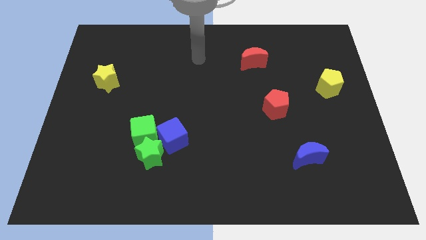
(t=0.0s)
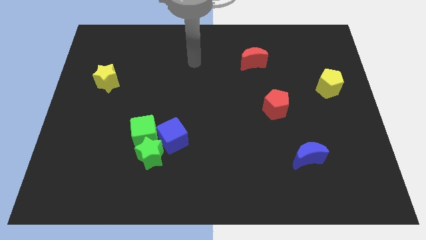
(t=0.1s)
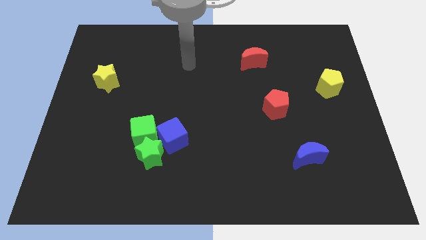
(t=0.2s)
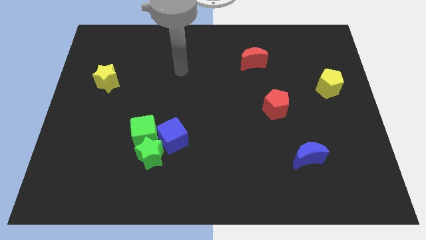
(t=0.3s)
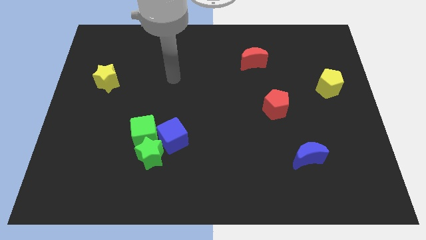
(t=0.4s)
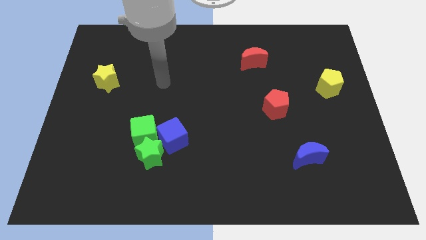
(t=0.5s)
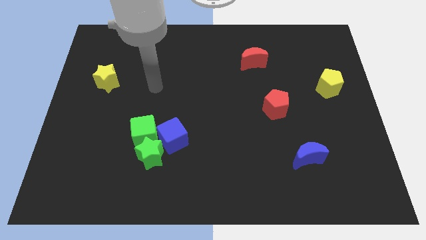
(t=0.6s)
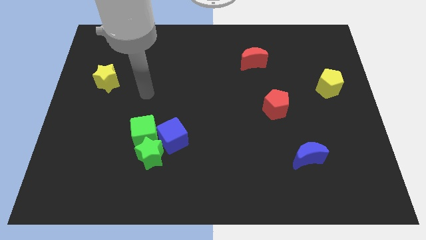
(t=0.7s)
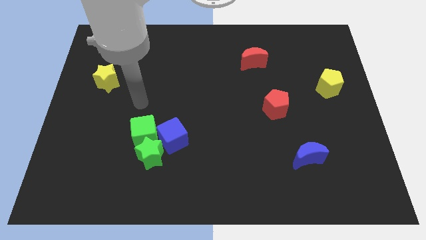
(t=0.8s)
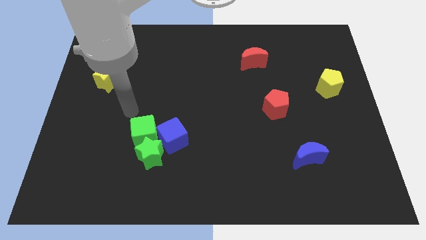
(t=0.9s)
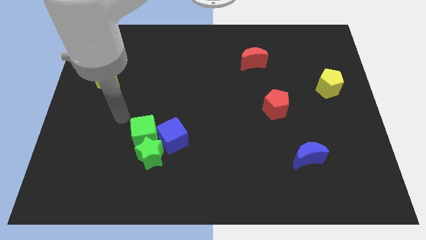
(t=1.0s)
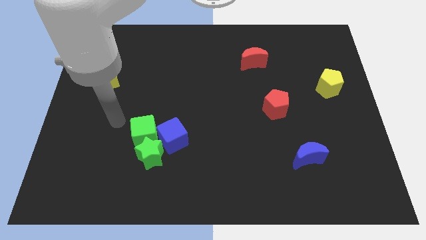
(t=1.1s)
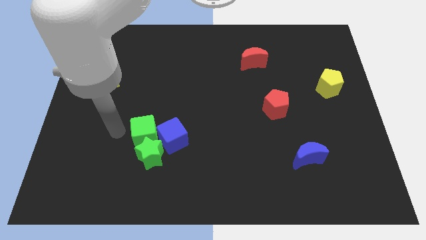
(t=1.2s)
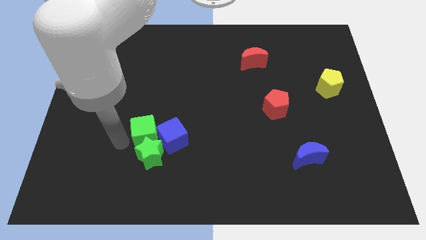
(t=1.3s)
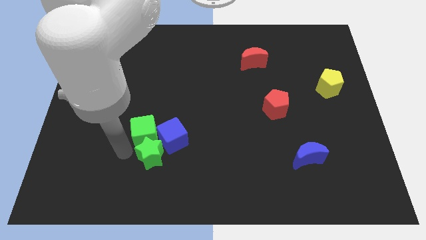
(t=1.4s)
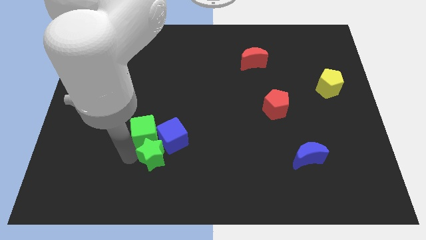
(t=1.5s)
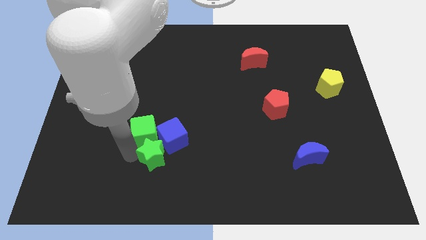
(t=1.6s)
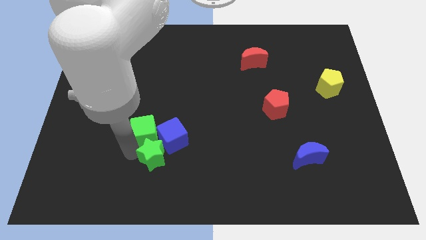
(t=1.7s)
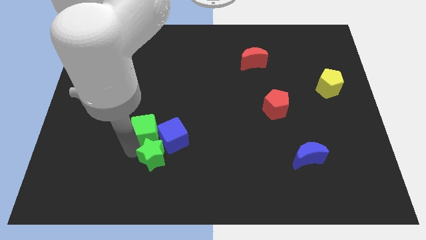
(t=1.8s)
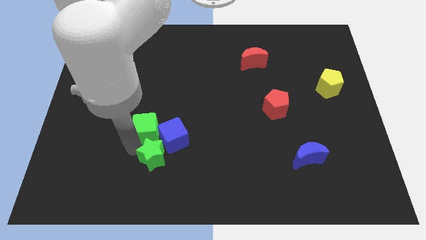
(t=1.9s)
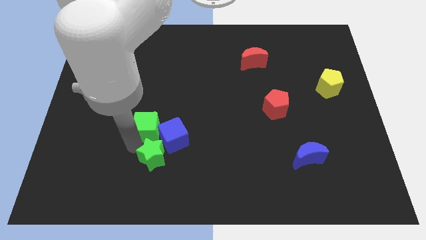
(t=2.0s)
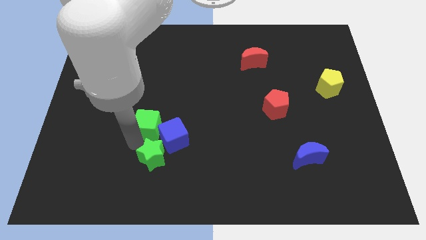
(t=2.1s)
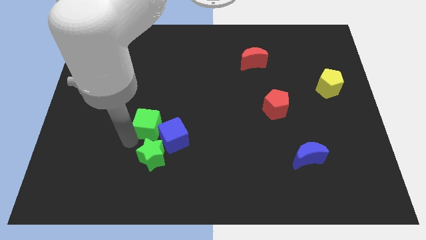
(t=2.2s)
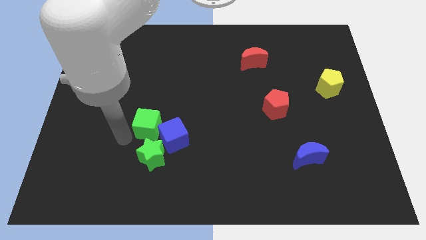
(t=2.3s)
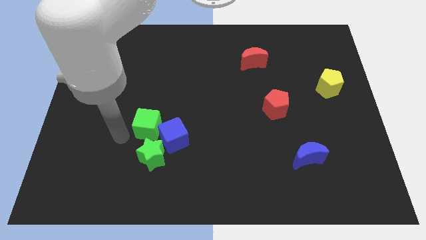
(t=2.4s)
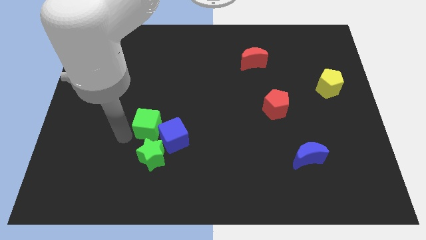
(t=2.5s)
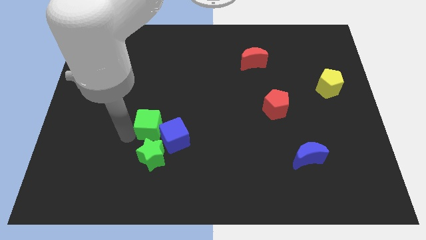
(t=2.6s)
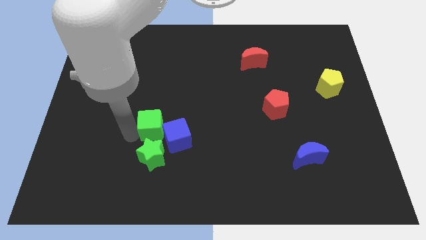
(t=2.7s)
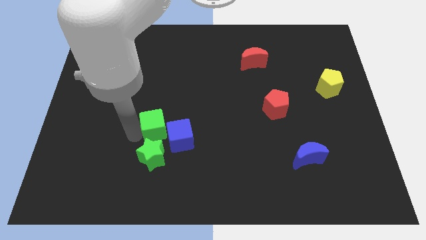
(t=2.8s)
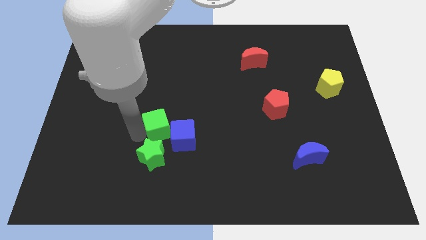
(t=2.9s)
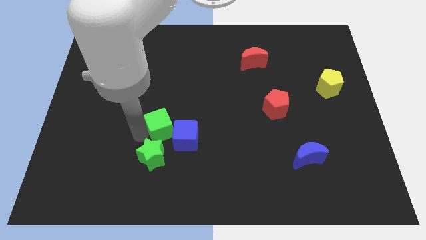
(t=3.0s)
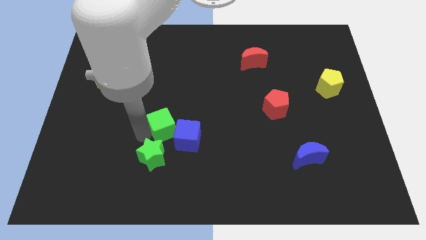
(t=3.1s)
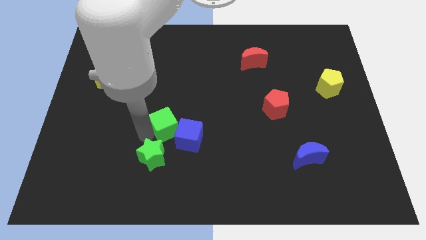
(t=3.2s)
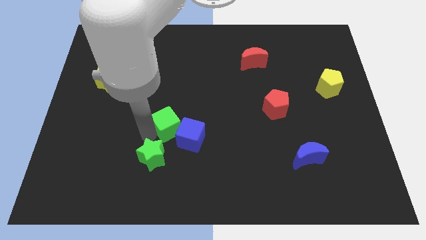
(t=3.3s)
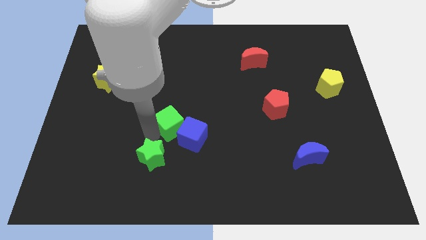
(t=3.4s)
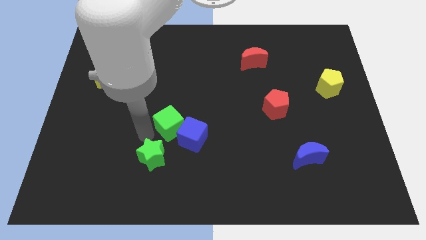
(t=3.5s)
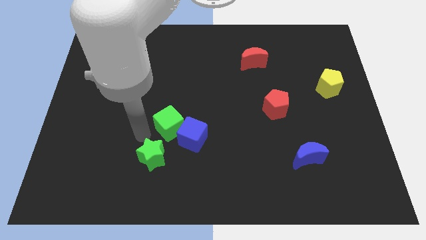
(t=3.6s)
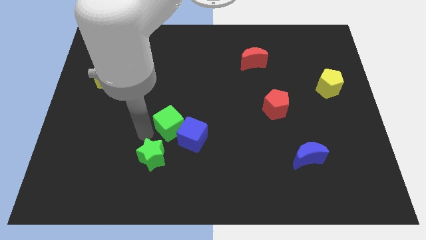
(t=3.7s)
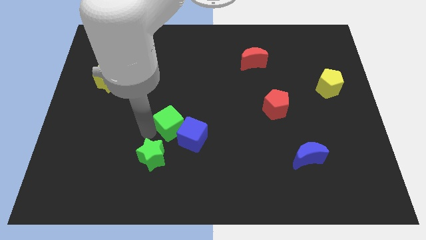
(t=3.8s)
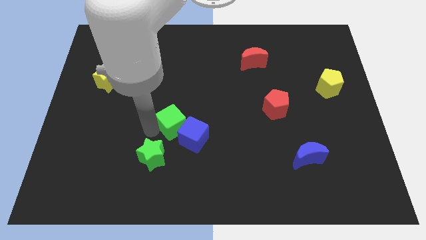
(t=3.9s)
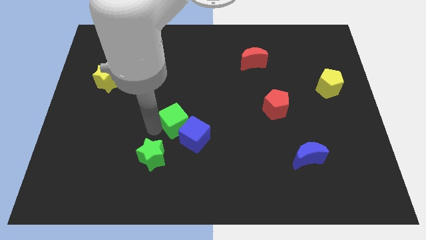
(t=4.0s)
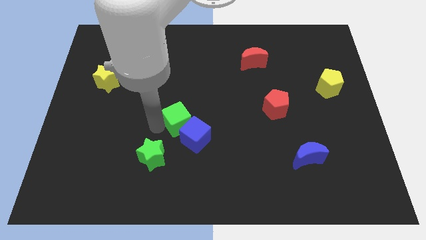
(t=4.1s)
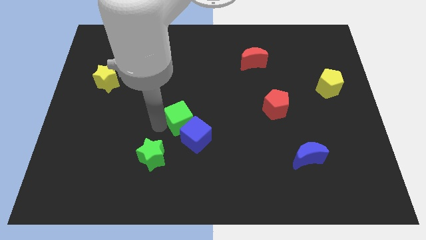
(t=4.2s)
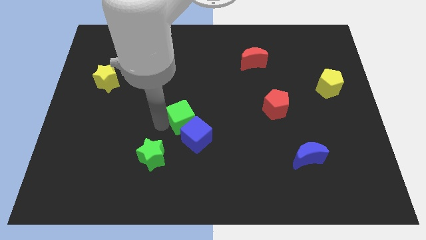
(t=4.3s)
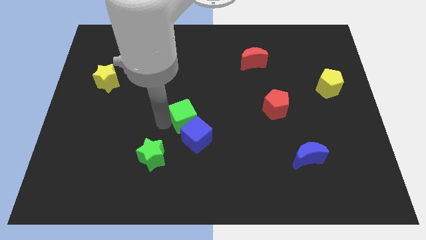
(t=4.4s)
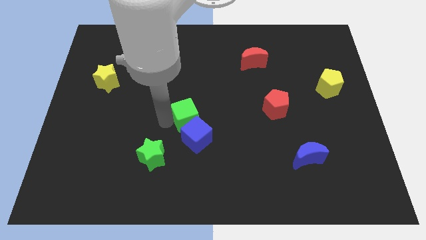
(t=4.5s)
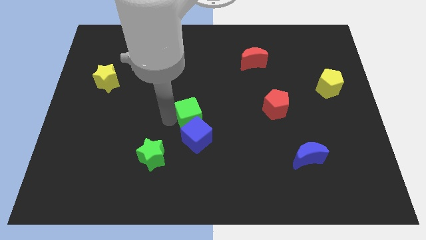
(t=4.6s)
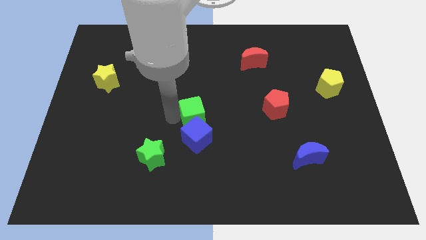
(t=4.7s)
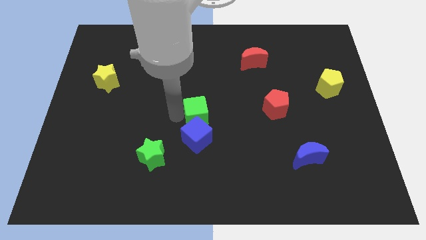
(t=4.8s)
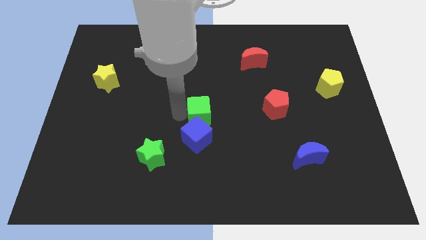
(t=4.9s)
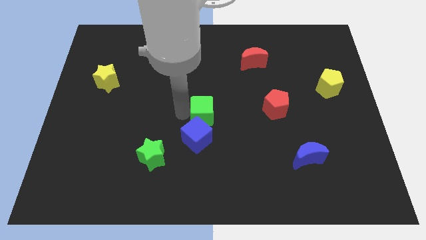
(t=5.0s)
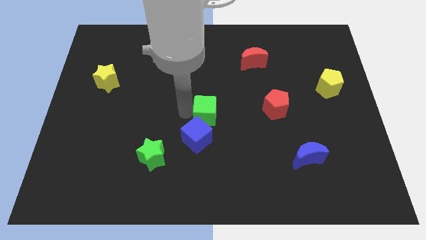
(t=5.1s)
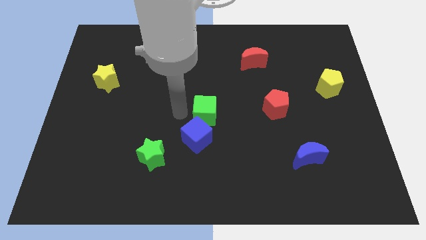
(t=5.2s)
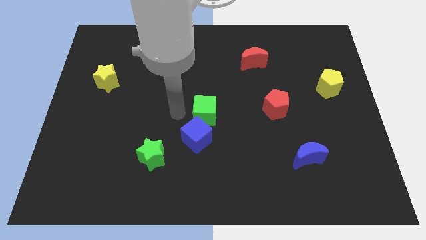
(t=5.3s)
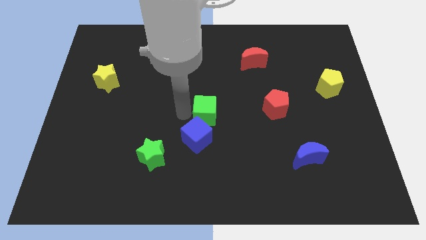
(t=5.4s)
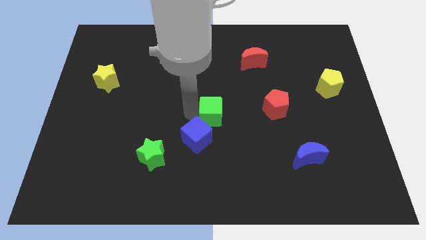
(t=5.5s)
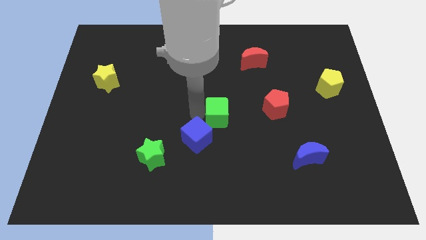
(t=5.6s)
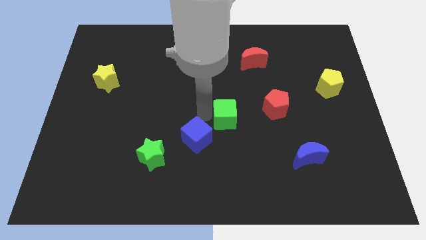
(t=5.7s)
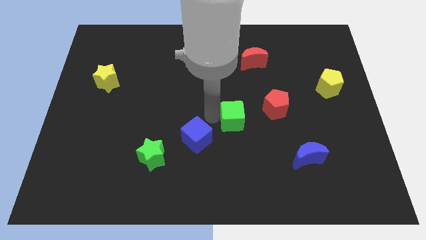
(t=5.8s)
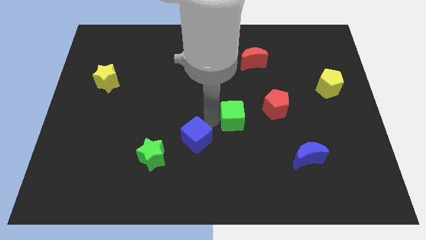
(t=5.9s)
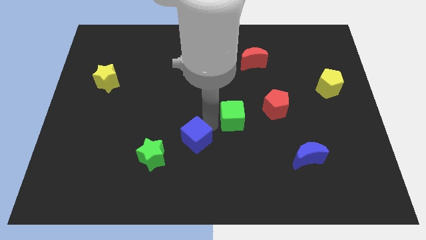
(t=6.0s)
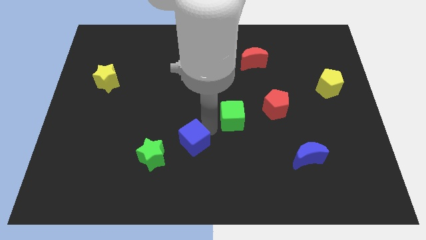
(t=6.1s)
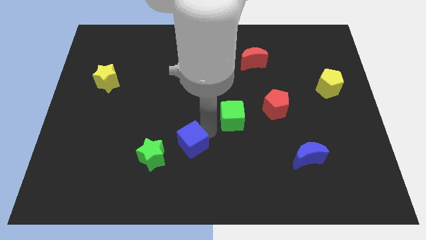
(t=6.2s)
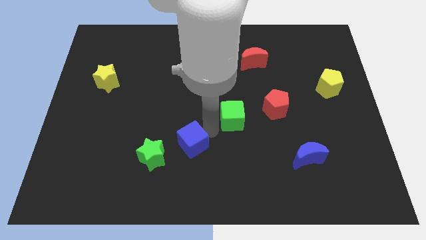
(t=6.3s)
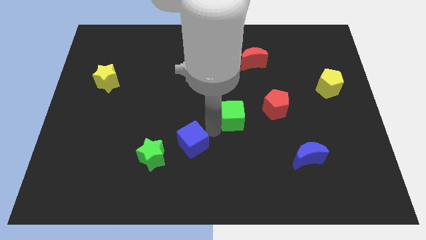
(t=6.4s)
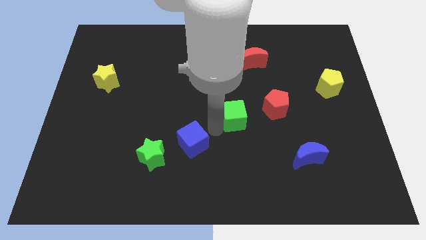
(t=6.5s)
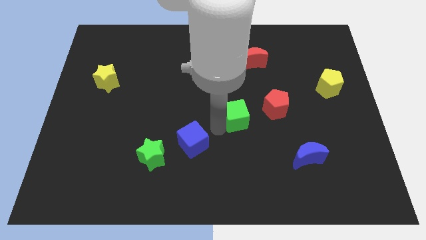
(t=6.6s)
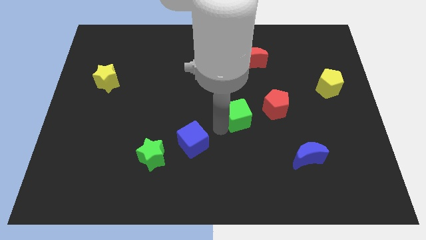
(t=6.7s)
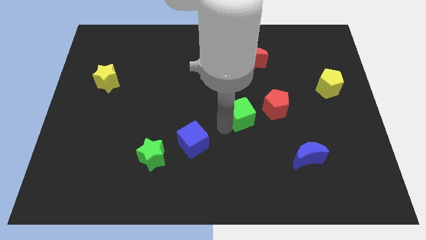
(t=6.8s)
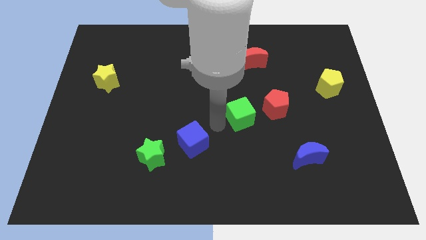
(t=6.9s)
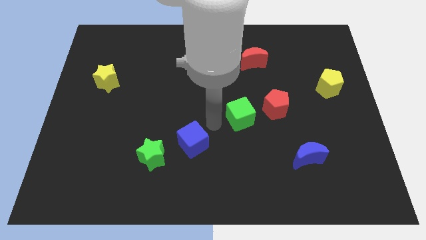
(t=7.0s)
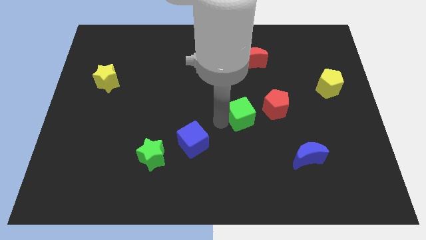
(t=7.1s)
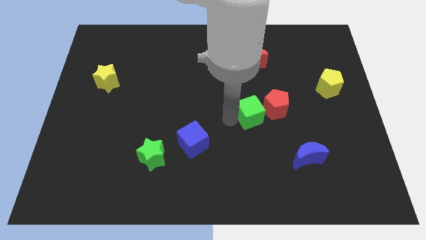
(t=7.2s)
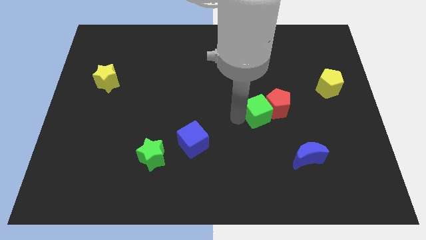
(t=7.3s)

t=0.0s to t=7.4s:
put the green cube next to the red pentagon
